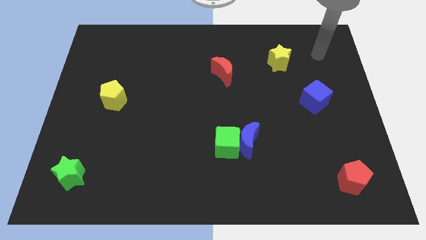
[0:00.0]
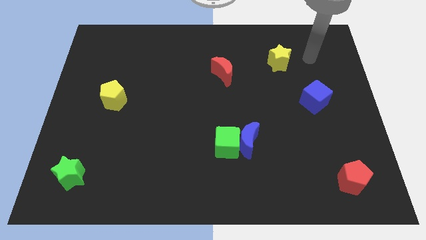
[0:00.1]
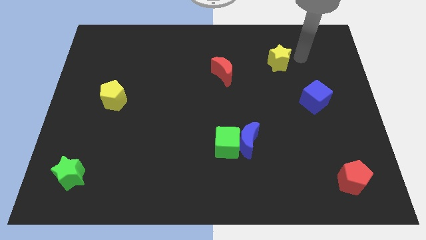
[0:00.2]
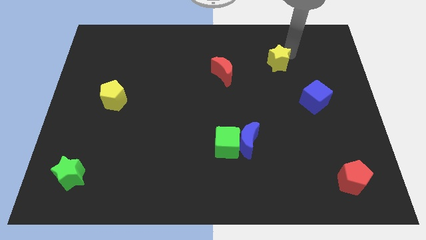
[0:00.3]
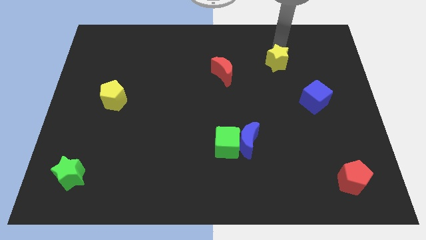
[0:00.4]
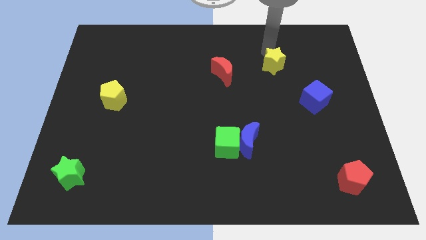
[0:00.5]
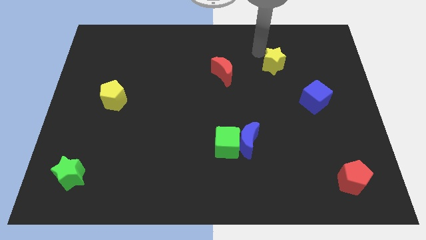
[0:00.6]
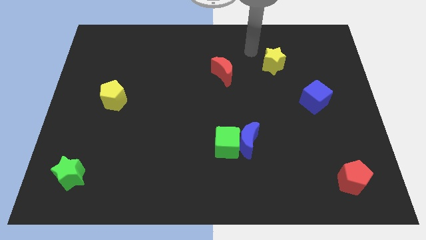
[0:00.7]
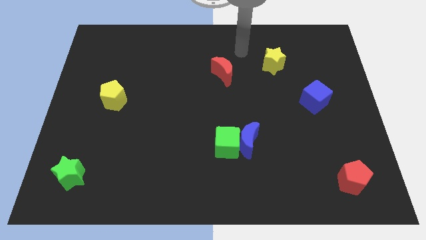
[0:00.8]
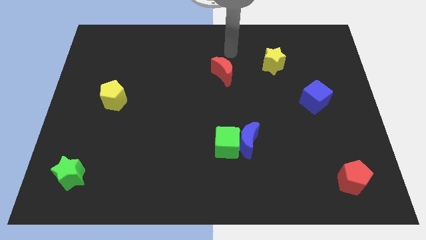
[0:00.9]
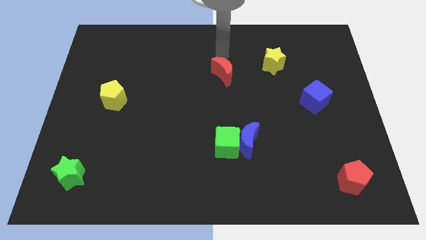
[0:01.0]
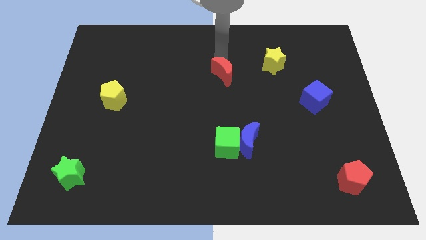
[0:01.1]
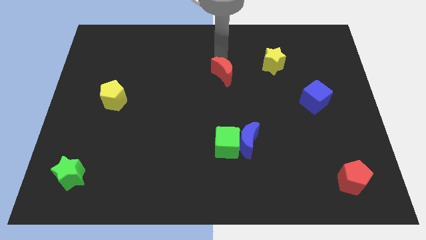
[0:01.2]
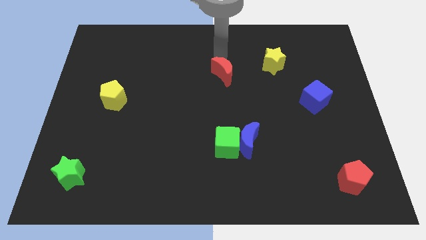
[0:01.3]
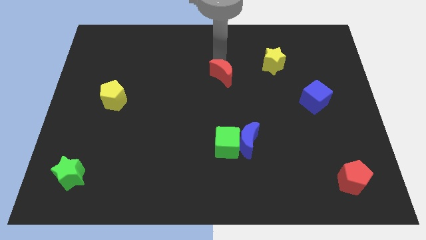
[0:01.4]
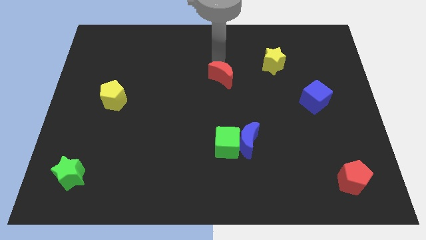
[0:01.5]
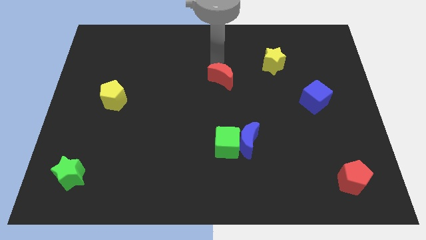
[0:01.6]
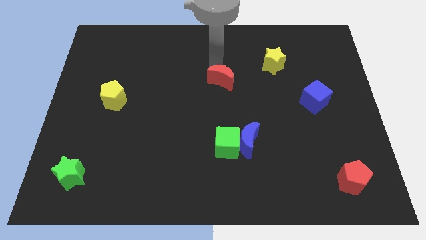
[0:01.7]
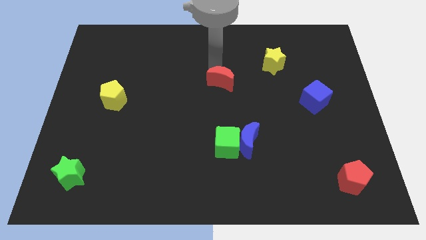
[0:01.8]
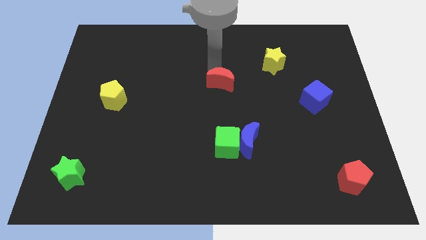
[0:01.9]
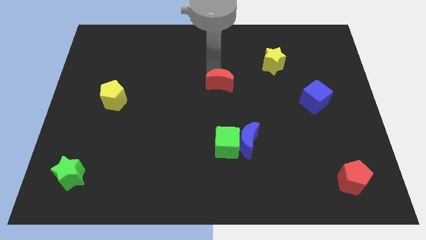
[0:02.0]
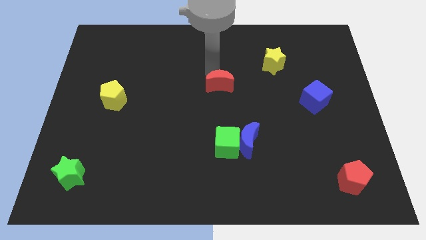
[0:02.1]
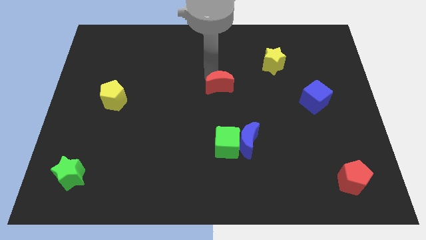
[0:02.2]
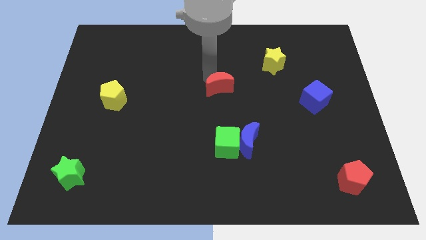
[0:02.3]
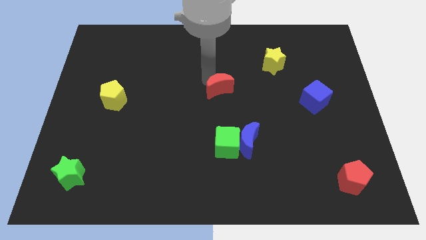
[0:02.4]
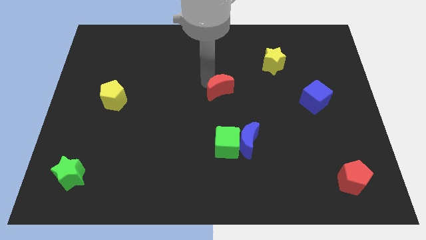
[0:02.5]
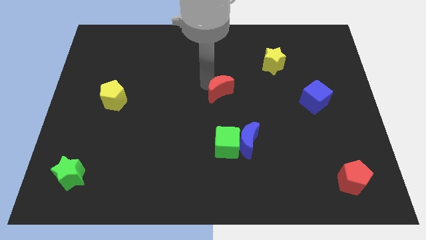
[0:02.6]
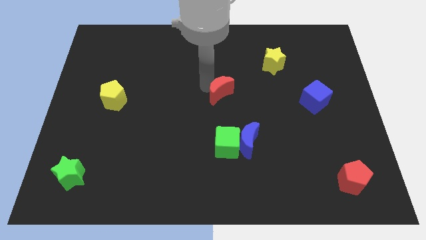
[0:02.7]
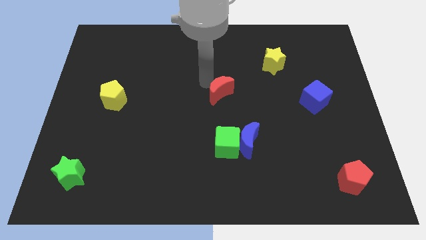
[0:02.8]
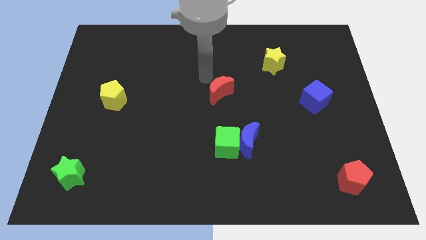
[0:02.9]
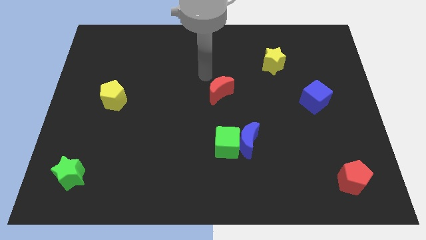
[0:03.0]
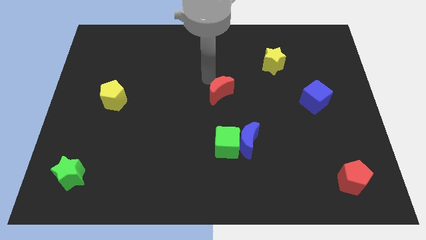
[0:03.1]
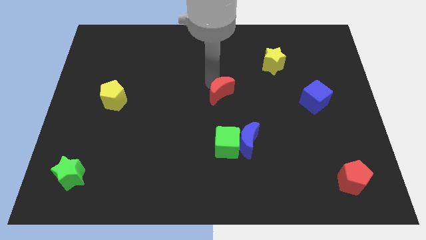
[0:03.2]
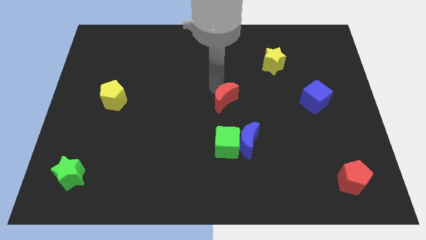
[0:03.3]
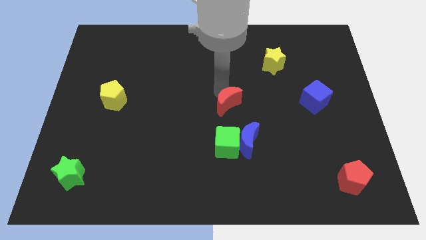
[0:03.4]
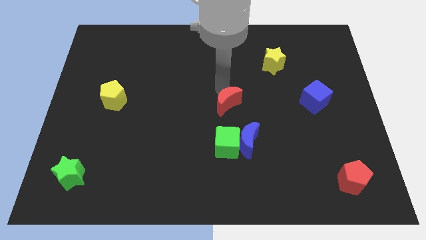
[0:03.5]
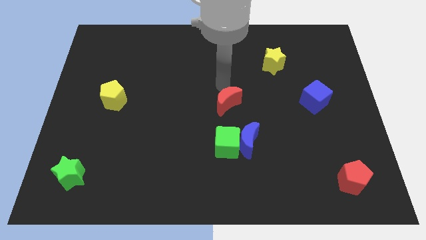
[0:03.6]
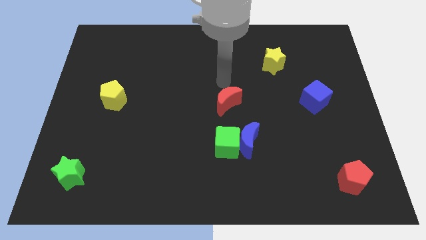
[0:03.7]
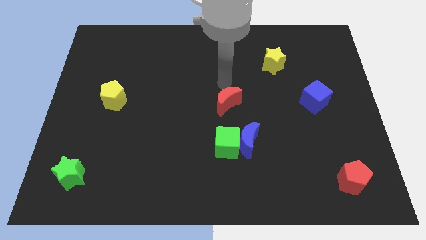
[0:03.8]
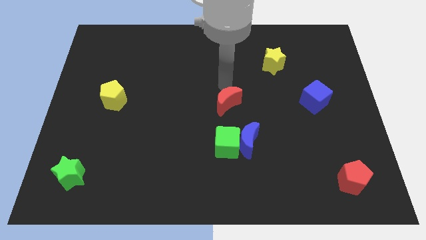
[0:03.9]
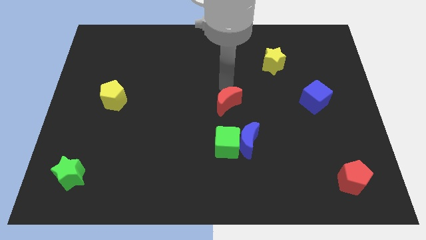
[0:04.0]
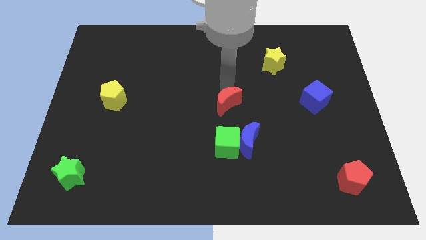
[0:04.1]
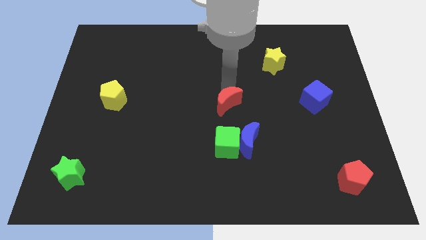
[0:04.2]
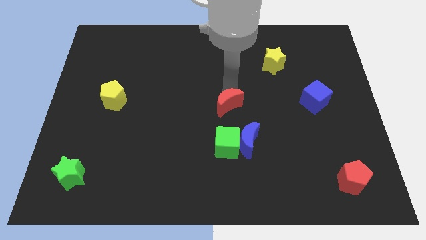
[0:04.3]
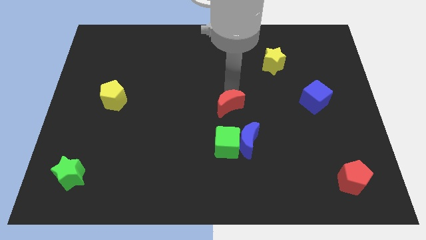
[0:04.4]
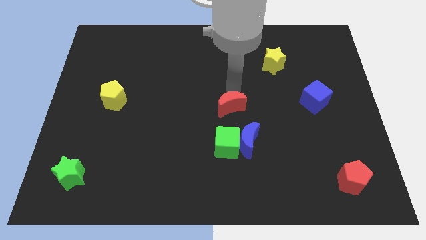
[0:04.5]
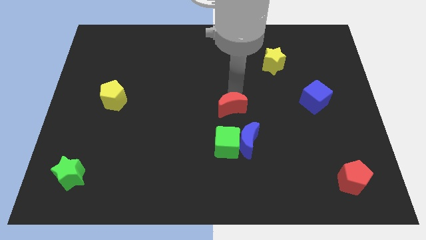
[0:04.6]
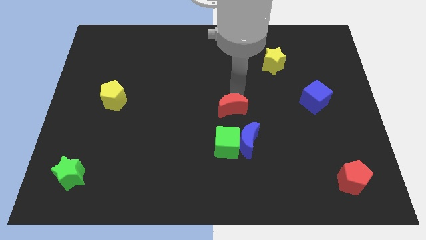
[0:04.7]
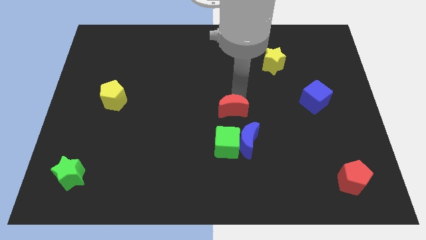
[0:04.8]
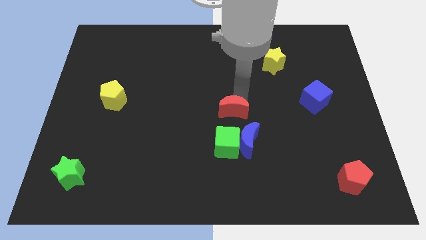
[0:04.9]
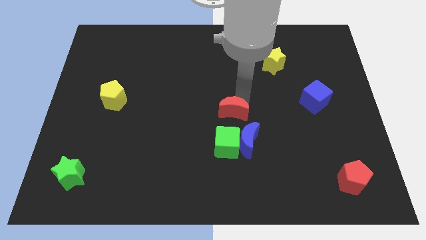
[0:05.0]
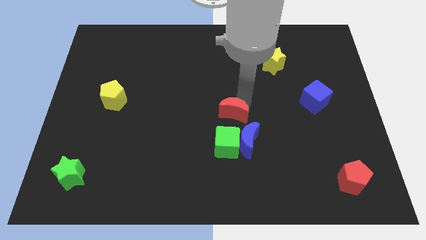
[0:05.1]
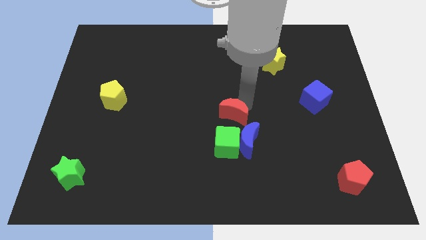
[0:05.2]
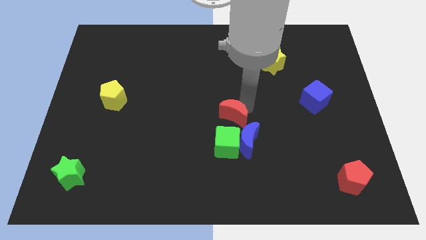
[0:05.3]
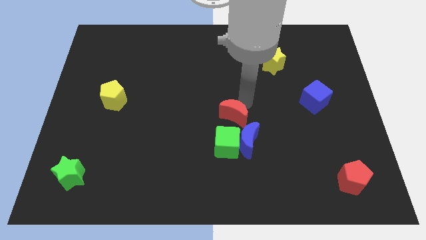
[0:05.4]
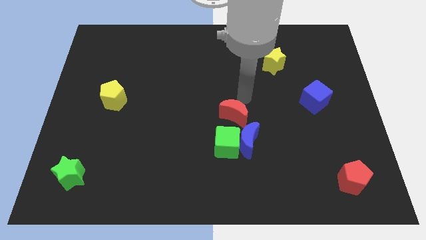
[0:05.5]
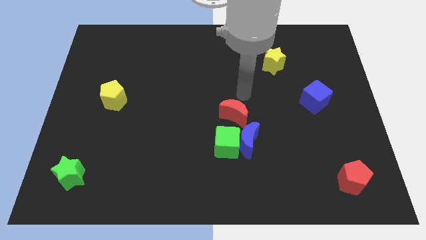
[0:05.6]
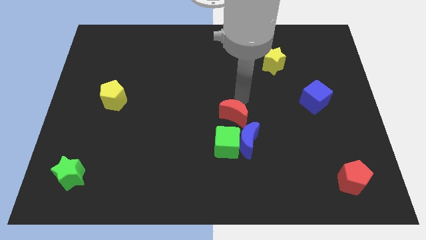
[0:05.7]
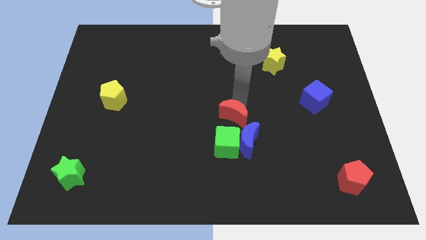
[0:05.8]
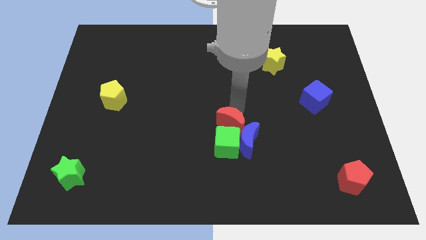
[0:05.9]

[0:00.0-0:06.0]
slide the red moon to the green cube

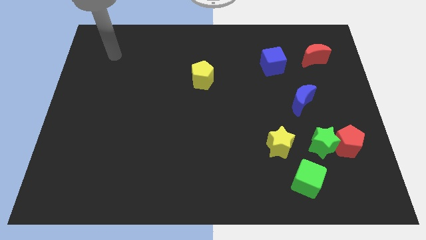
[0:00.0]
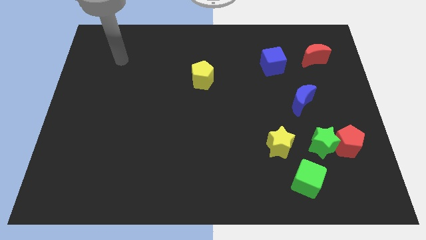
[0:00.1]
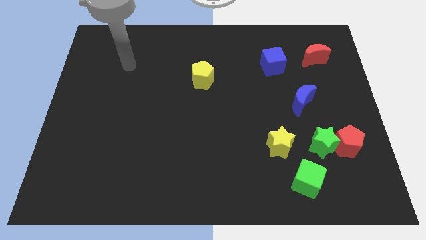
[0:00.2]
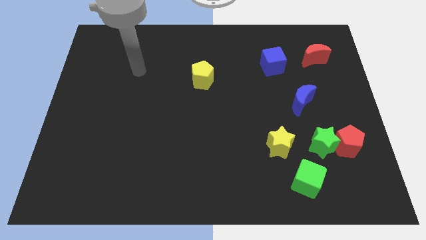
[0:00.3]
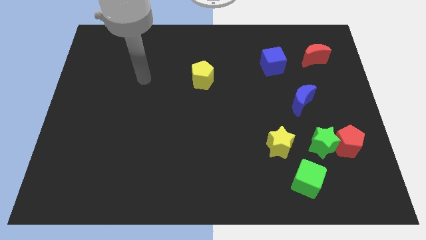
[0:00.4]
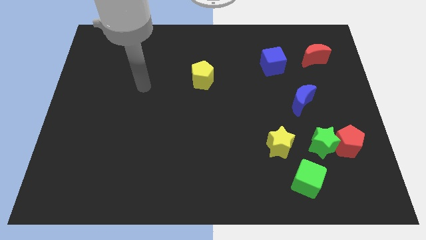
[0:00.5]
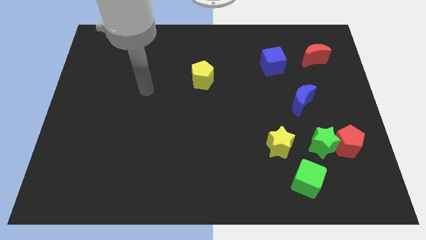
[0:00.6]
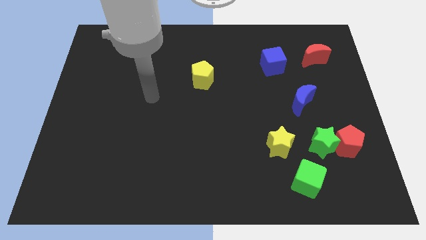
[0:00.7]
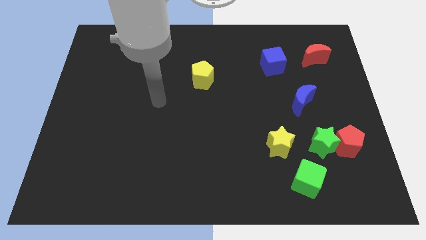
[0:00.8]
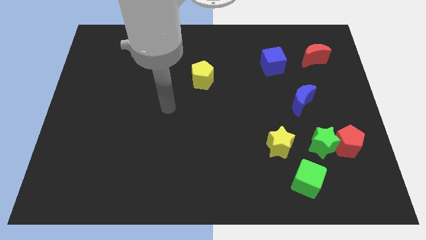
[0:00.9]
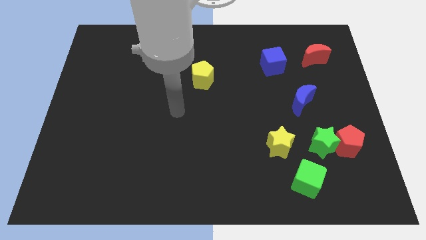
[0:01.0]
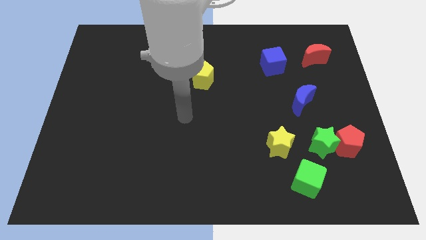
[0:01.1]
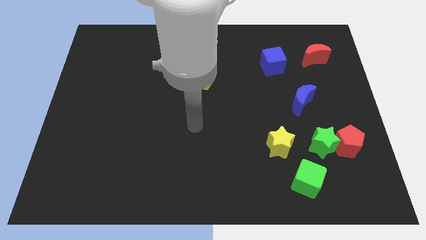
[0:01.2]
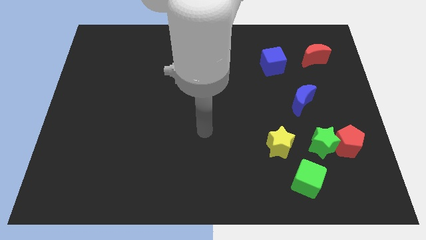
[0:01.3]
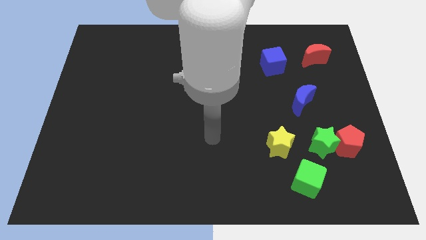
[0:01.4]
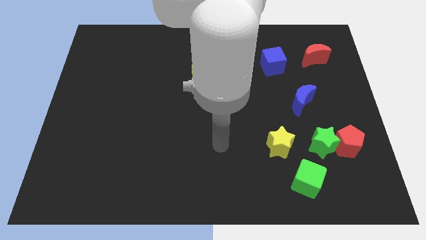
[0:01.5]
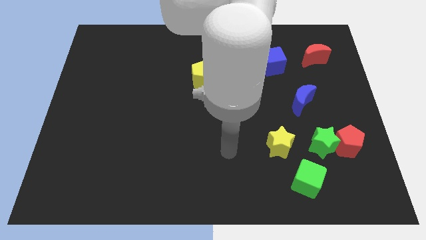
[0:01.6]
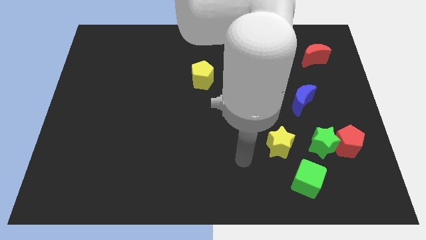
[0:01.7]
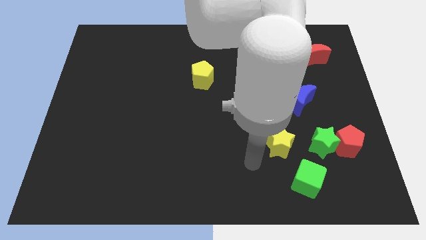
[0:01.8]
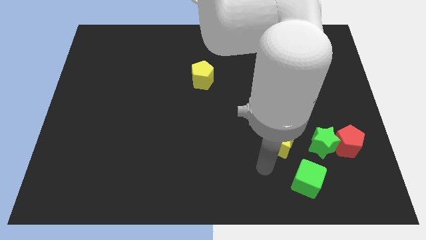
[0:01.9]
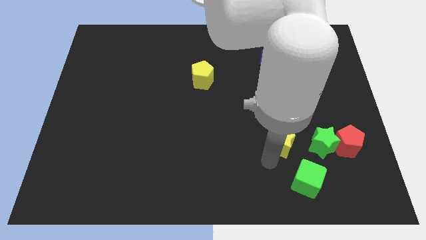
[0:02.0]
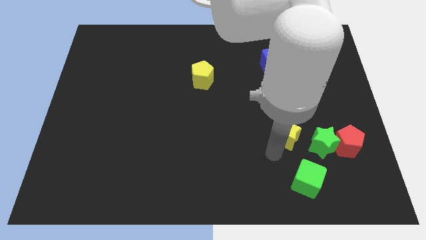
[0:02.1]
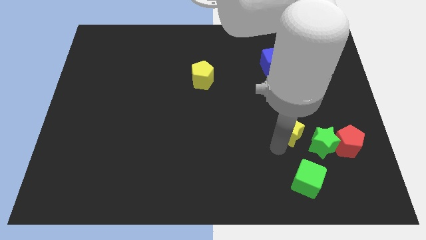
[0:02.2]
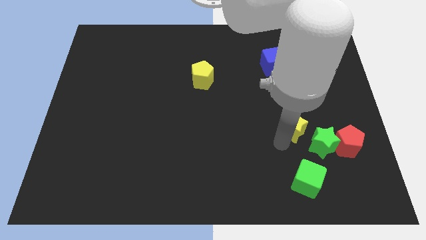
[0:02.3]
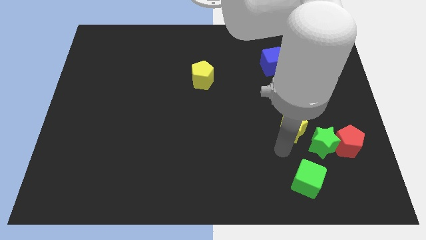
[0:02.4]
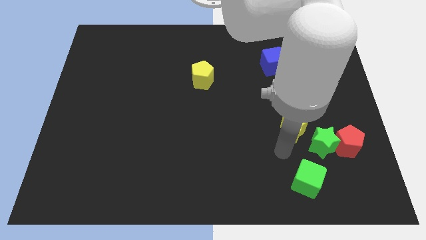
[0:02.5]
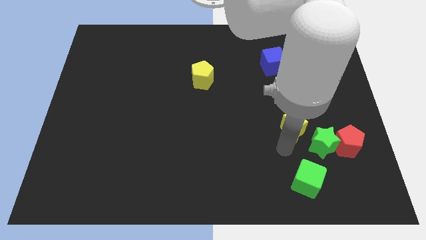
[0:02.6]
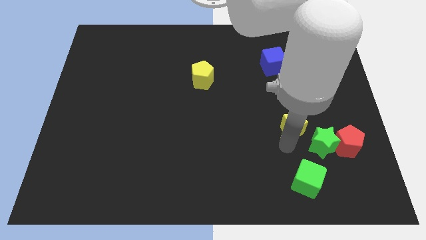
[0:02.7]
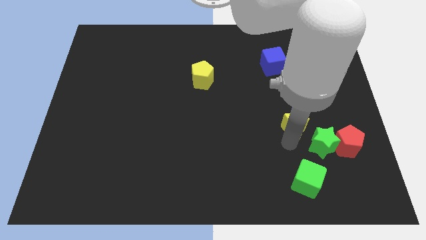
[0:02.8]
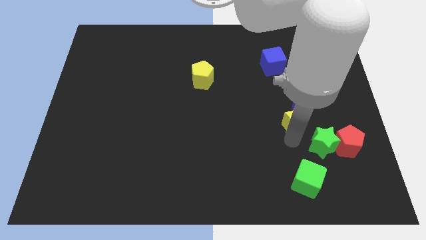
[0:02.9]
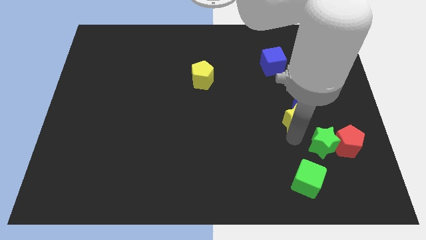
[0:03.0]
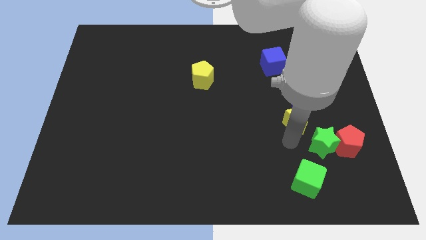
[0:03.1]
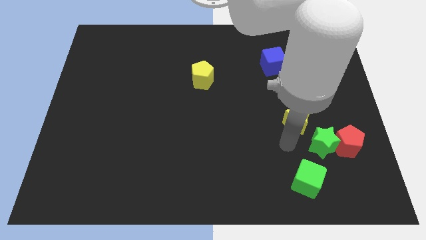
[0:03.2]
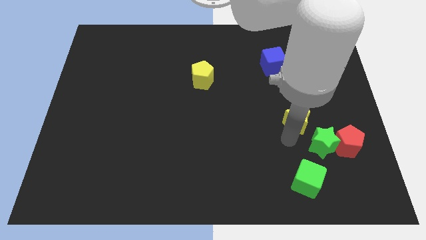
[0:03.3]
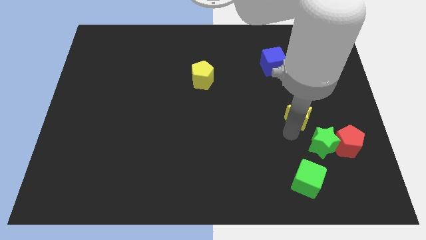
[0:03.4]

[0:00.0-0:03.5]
move the yellow star towards the blue moon
